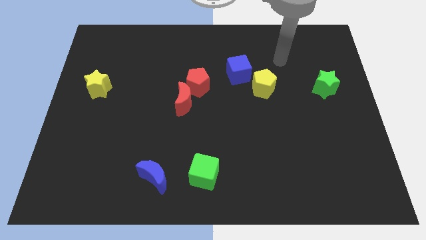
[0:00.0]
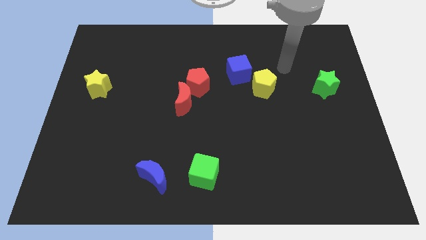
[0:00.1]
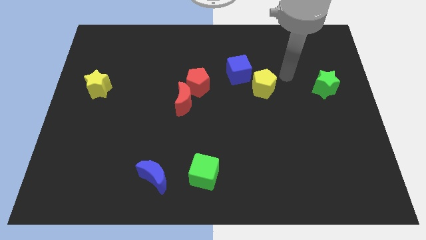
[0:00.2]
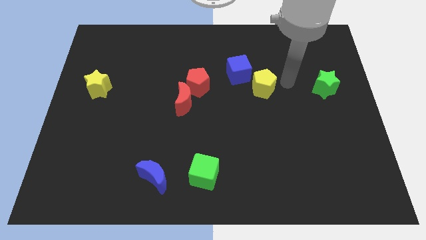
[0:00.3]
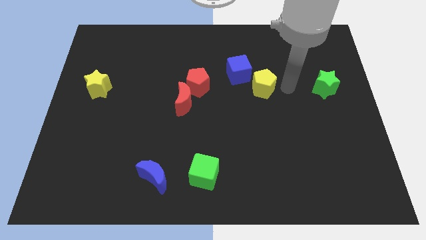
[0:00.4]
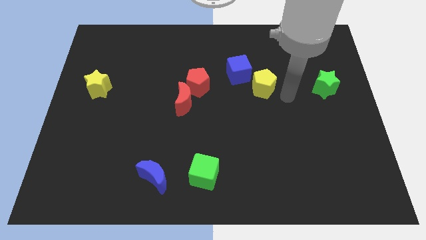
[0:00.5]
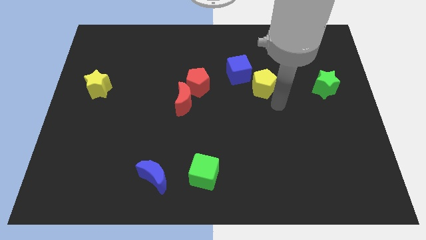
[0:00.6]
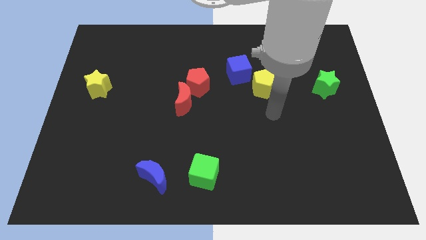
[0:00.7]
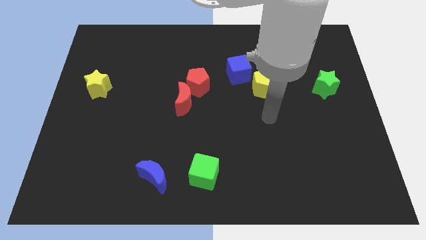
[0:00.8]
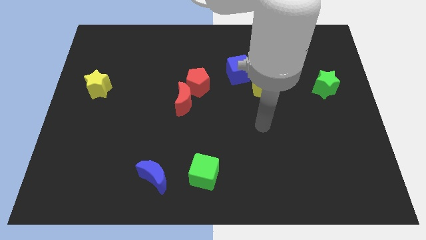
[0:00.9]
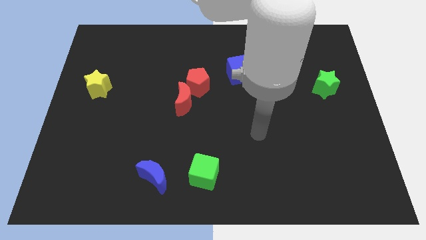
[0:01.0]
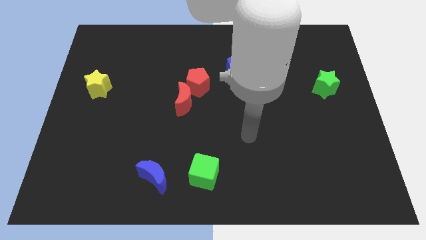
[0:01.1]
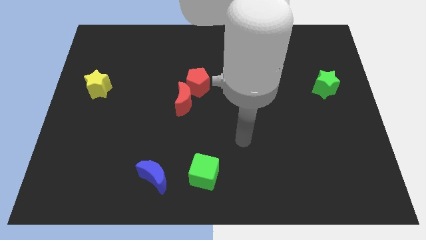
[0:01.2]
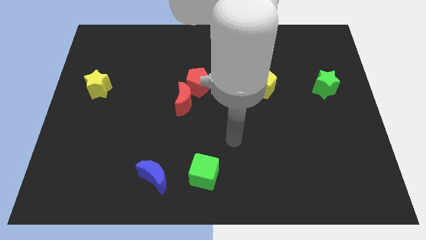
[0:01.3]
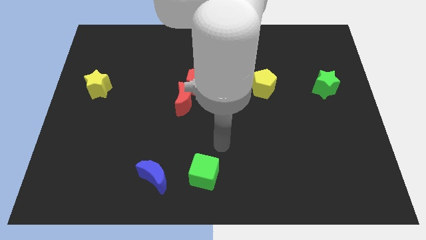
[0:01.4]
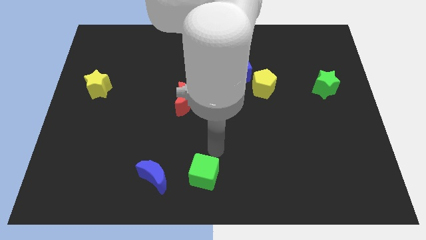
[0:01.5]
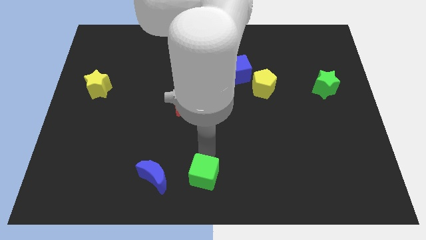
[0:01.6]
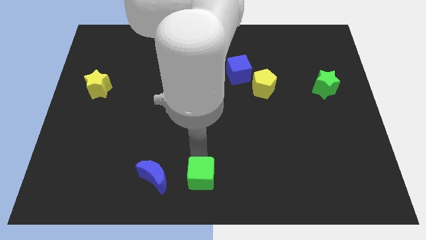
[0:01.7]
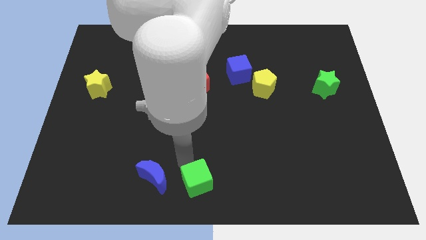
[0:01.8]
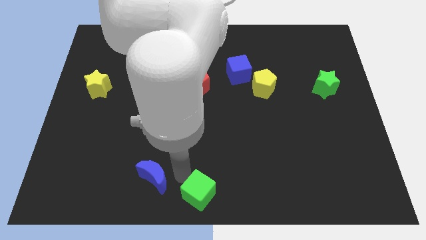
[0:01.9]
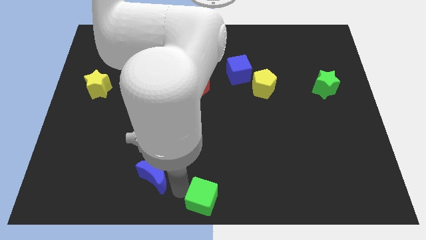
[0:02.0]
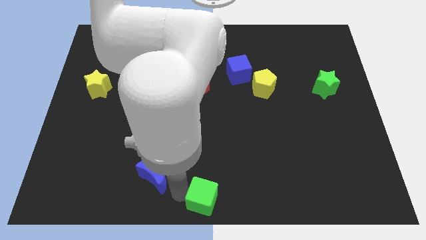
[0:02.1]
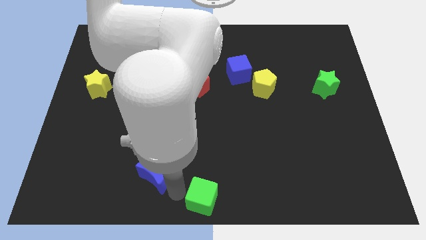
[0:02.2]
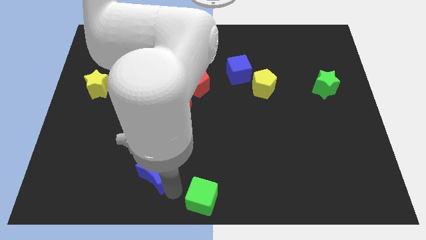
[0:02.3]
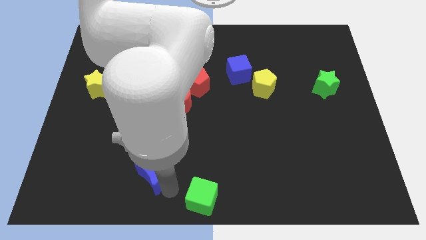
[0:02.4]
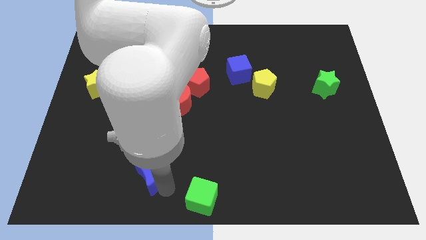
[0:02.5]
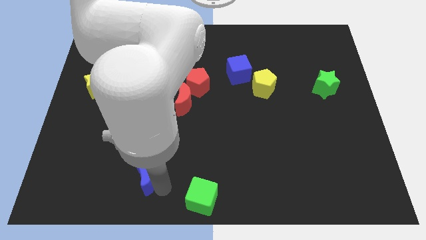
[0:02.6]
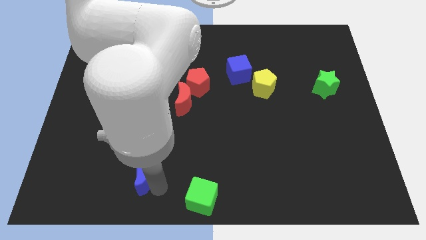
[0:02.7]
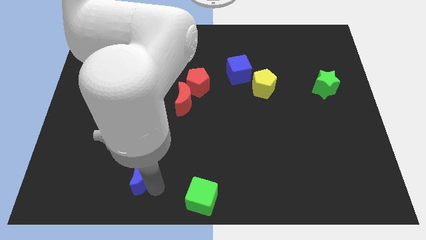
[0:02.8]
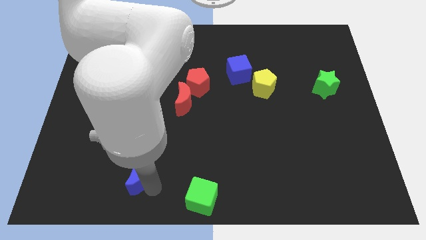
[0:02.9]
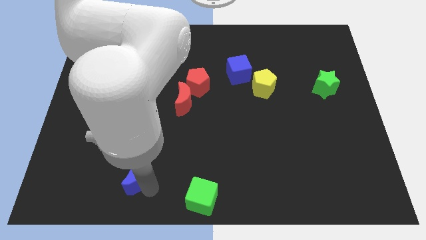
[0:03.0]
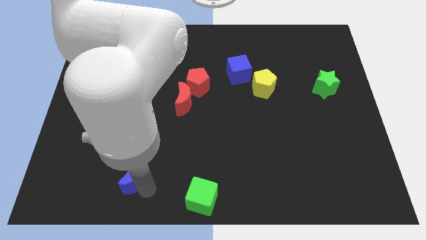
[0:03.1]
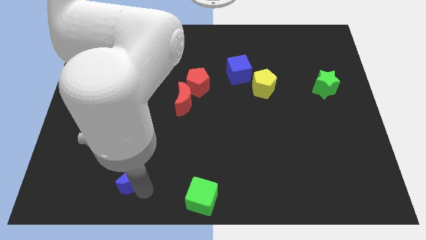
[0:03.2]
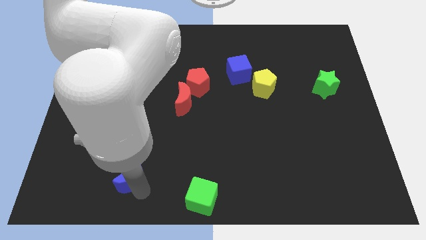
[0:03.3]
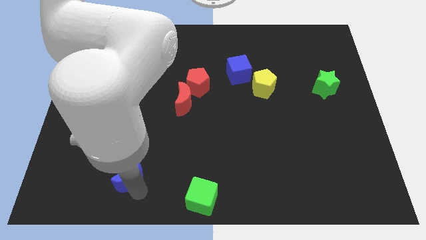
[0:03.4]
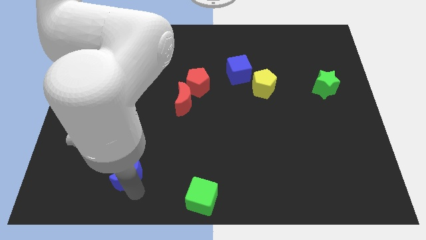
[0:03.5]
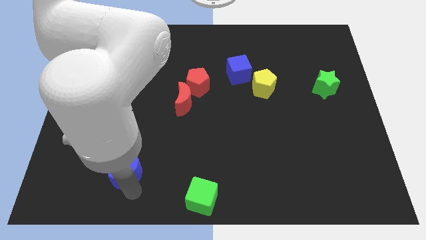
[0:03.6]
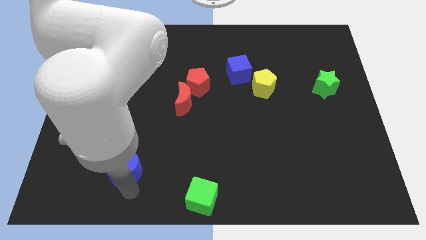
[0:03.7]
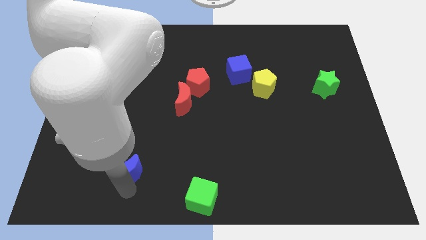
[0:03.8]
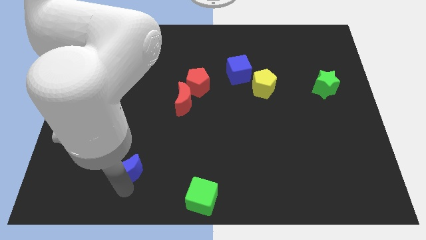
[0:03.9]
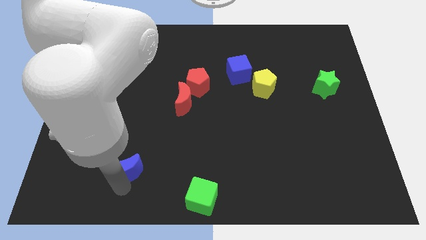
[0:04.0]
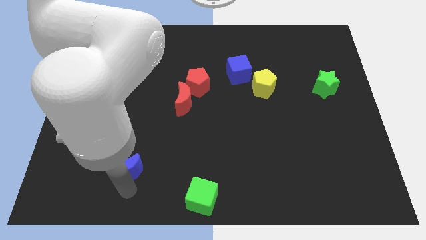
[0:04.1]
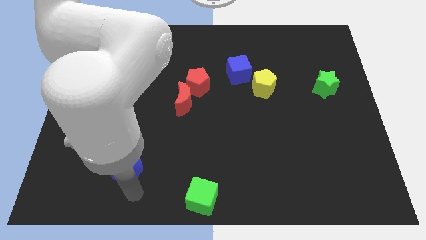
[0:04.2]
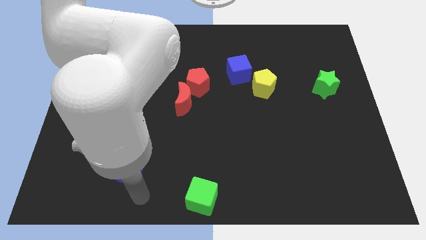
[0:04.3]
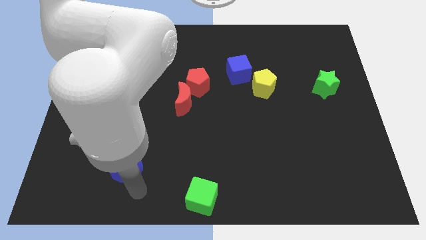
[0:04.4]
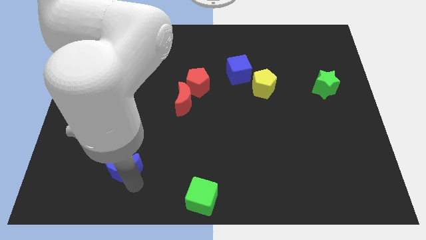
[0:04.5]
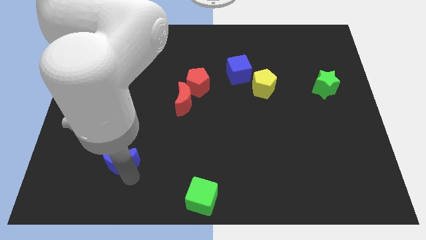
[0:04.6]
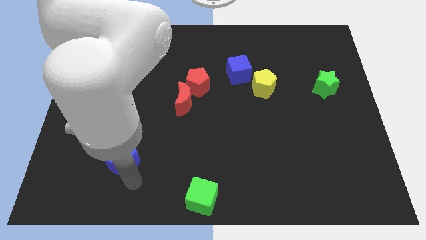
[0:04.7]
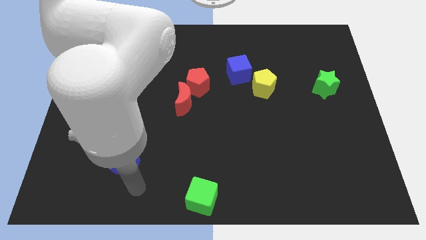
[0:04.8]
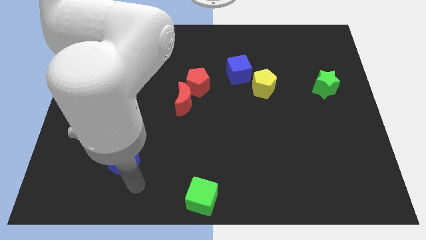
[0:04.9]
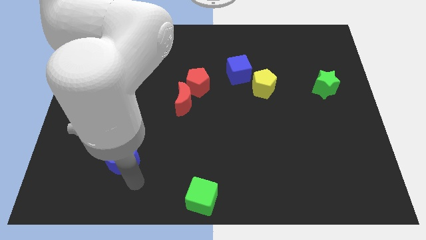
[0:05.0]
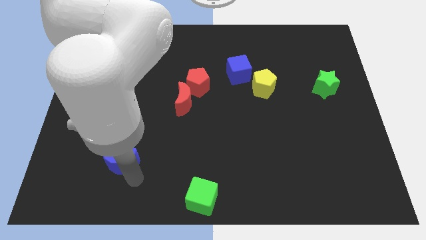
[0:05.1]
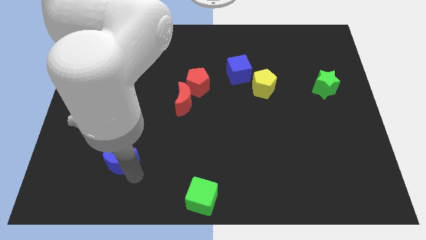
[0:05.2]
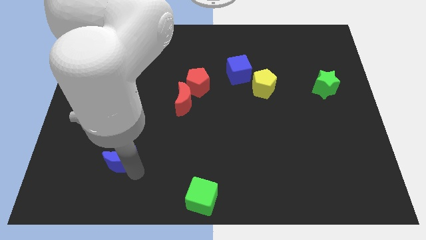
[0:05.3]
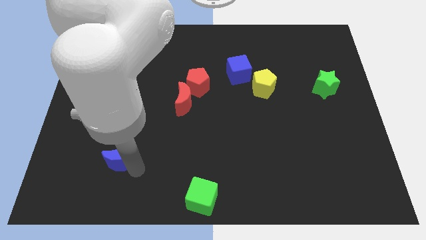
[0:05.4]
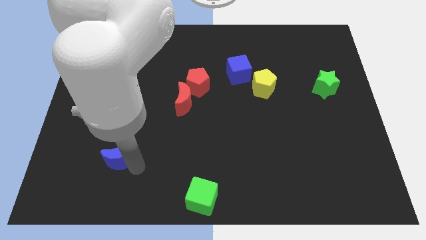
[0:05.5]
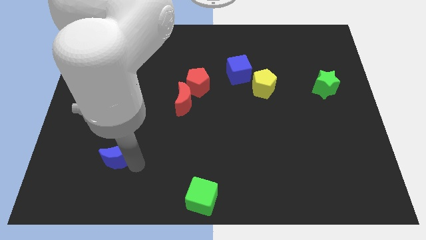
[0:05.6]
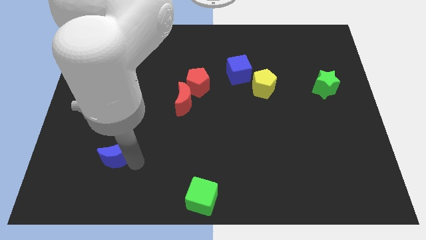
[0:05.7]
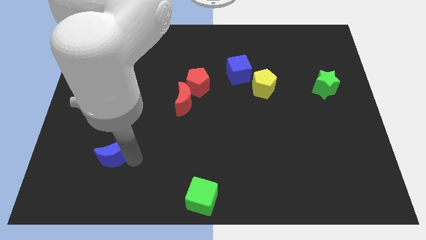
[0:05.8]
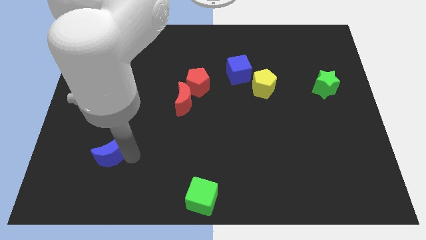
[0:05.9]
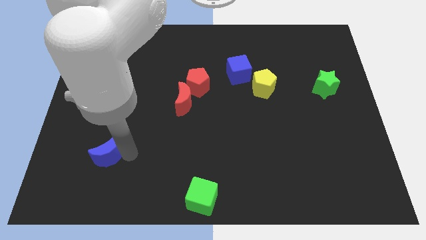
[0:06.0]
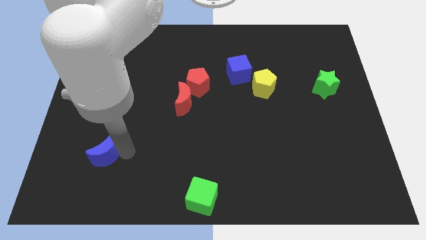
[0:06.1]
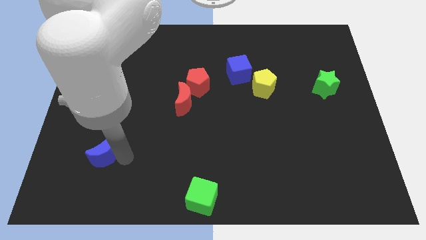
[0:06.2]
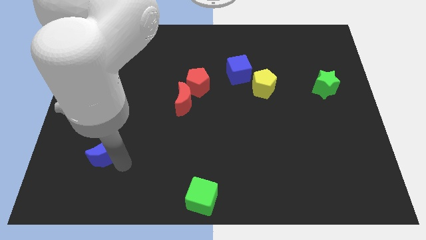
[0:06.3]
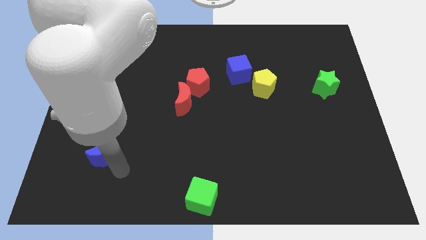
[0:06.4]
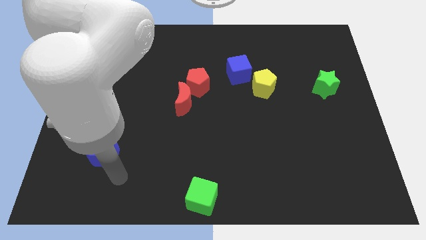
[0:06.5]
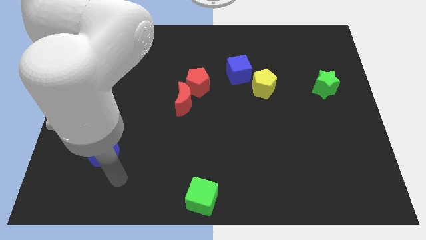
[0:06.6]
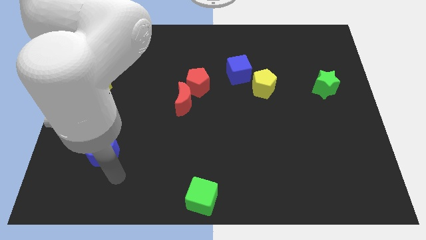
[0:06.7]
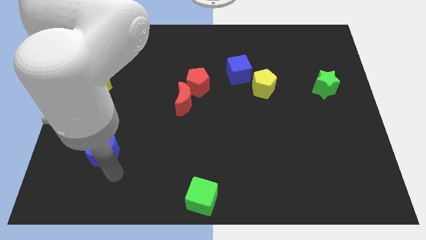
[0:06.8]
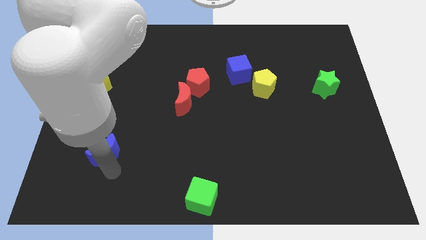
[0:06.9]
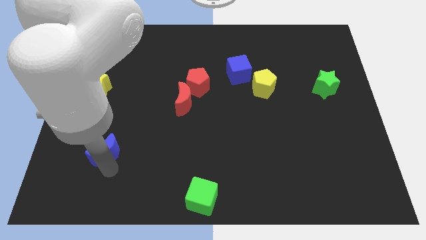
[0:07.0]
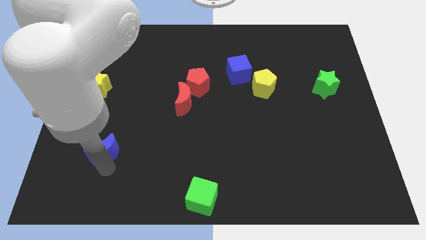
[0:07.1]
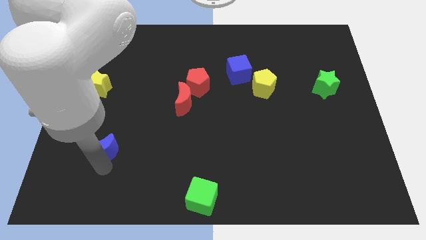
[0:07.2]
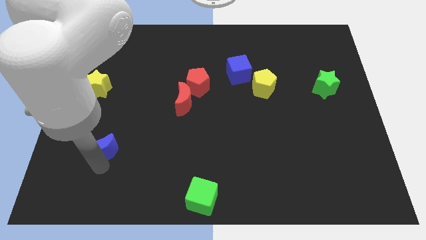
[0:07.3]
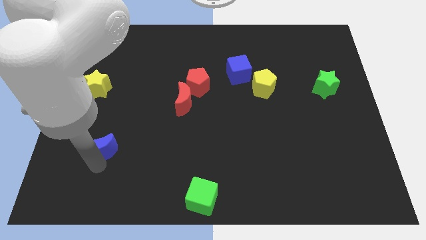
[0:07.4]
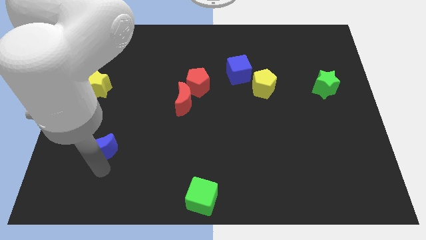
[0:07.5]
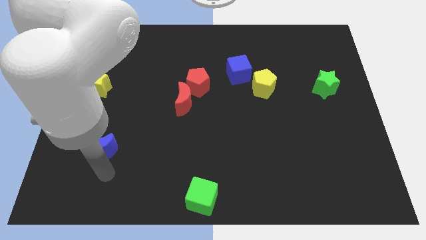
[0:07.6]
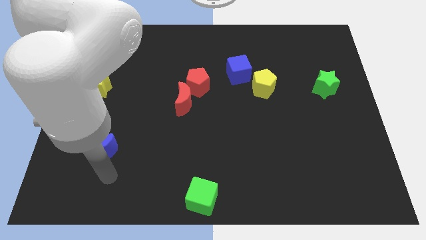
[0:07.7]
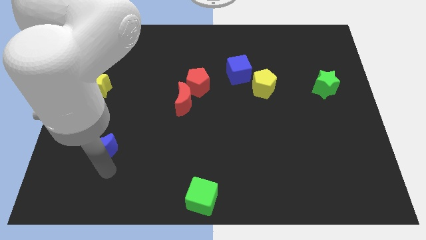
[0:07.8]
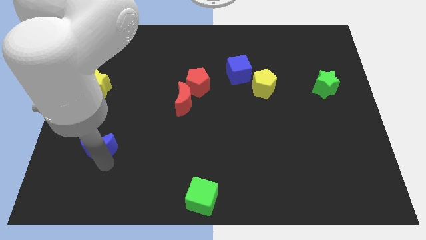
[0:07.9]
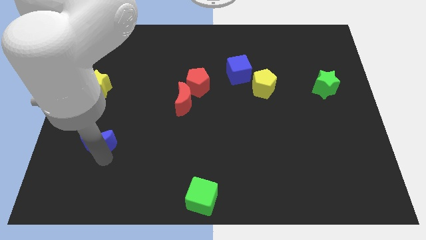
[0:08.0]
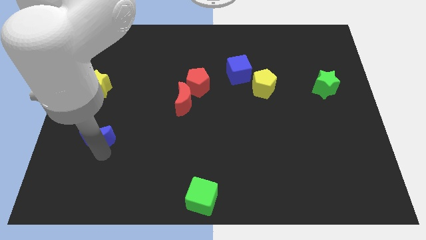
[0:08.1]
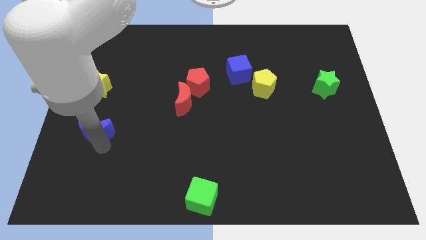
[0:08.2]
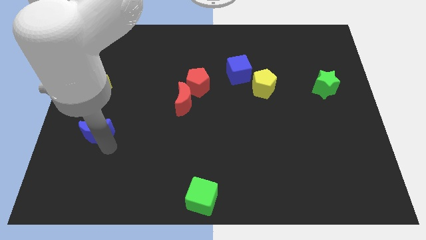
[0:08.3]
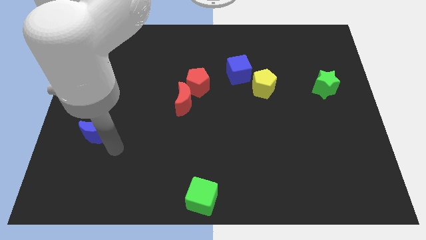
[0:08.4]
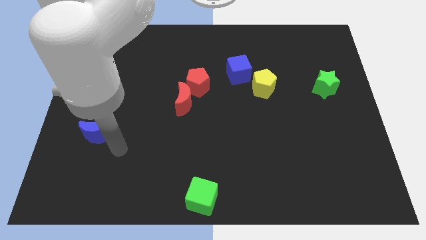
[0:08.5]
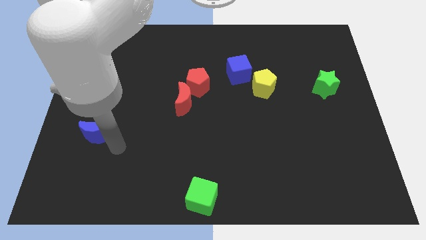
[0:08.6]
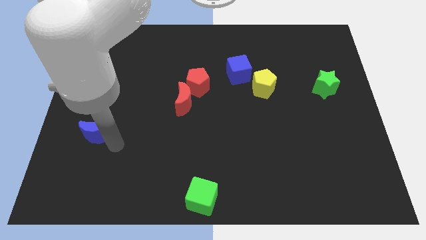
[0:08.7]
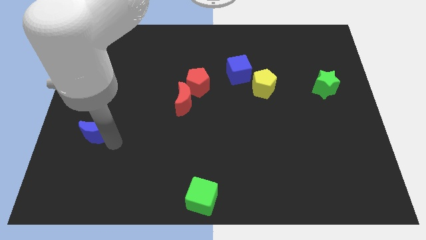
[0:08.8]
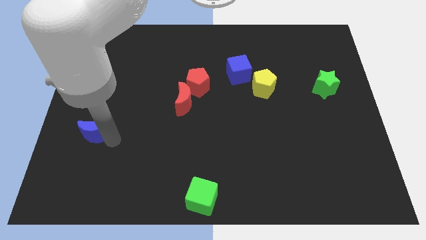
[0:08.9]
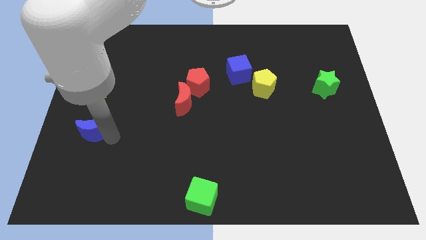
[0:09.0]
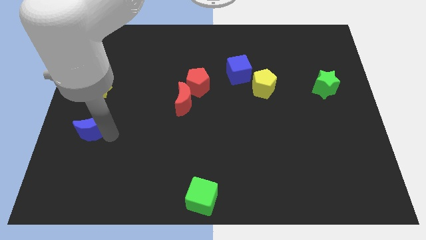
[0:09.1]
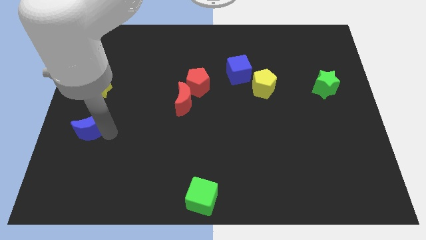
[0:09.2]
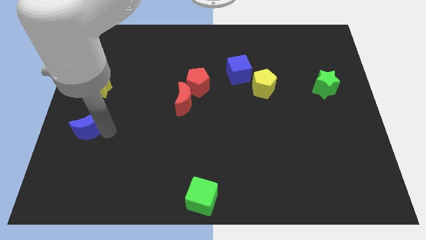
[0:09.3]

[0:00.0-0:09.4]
push the blue moon to the left side of the board
